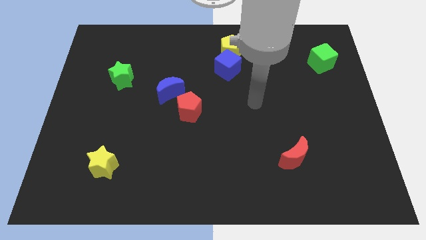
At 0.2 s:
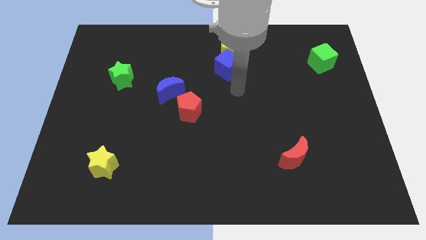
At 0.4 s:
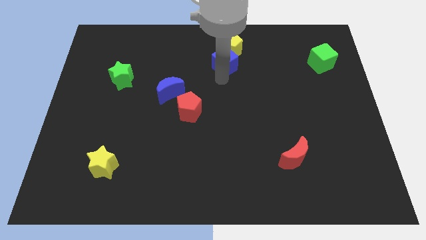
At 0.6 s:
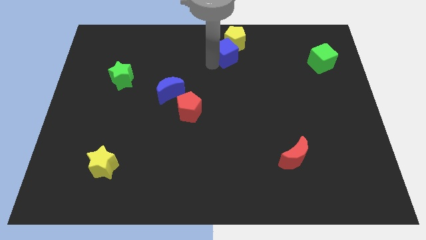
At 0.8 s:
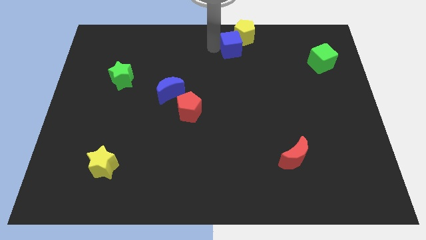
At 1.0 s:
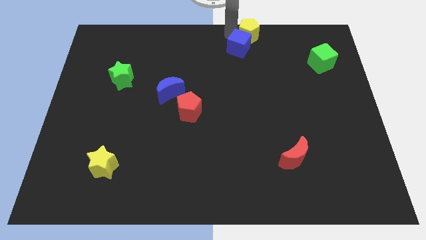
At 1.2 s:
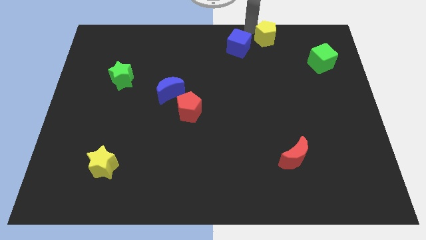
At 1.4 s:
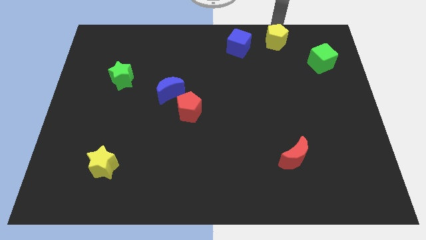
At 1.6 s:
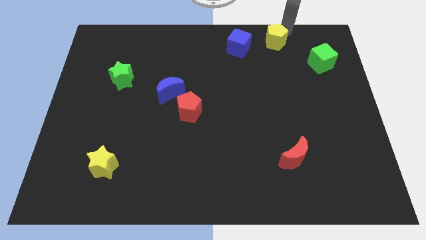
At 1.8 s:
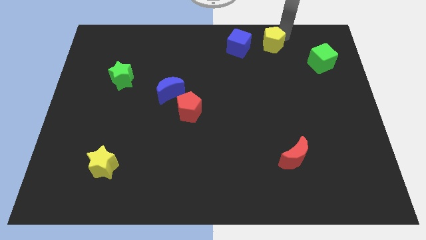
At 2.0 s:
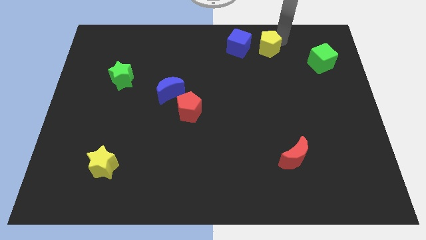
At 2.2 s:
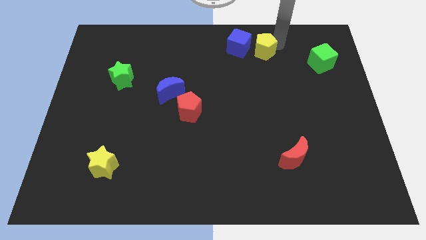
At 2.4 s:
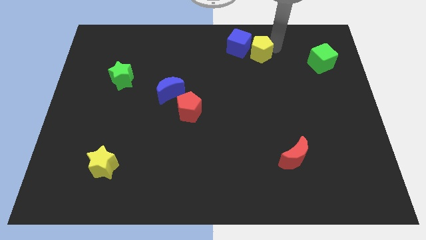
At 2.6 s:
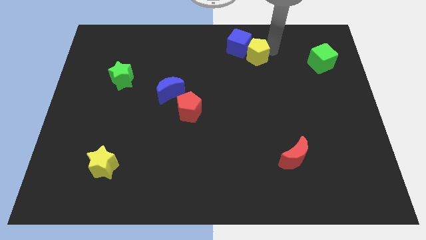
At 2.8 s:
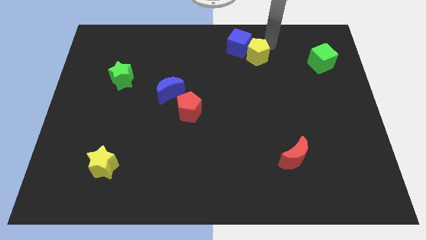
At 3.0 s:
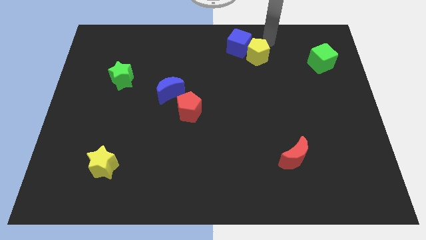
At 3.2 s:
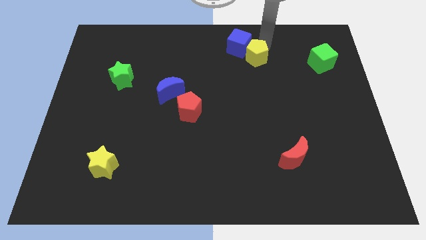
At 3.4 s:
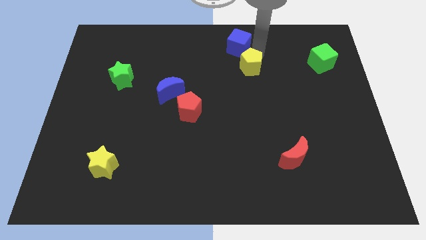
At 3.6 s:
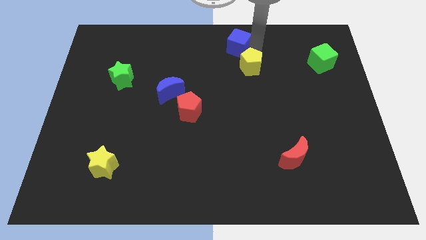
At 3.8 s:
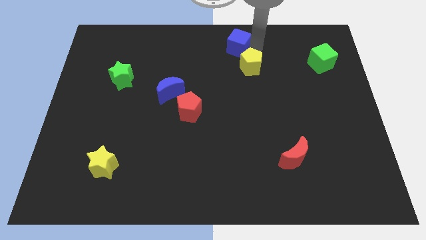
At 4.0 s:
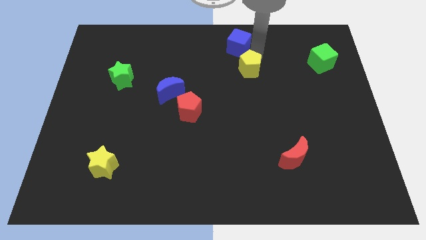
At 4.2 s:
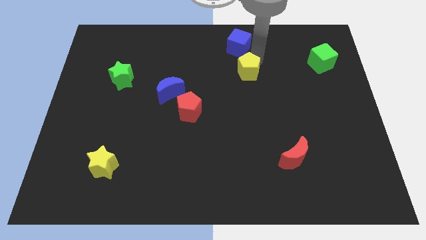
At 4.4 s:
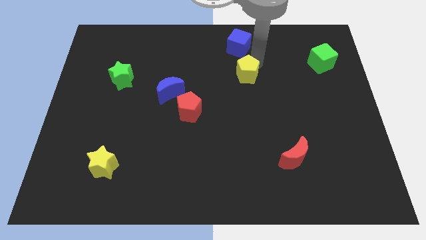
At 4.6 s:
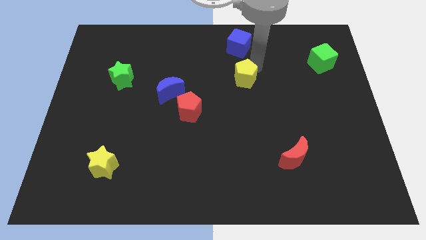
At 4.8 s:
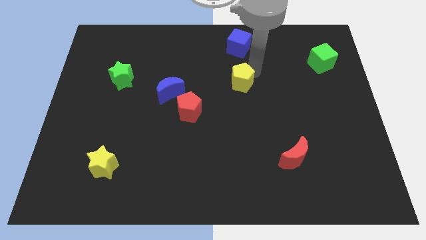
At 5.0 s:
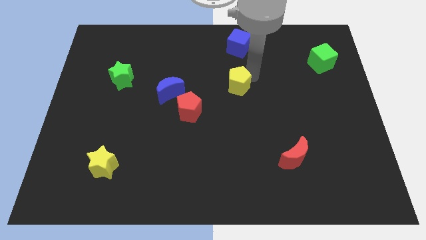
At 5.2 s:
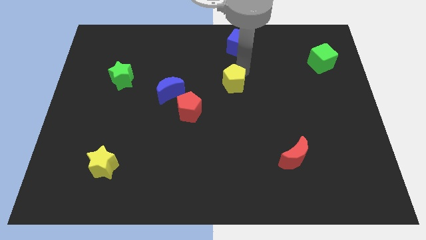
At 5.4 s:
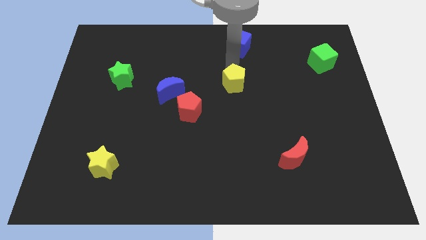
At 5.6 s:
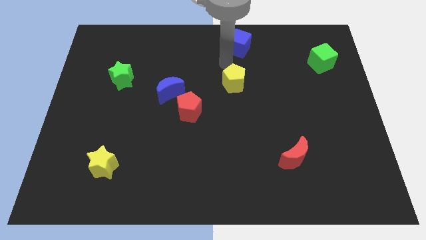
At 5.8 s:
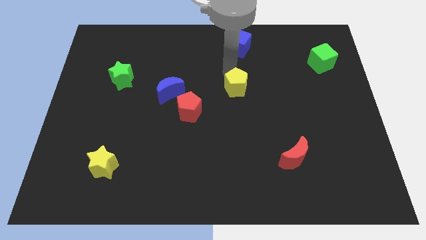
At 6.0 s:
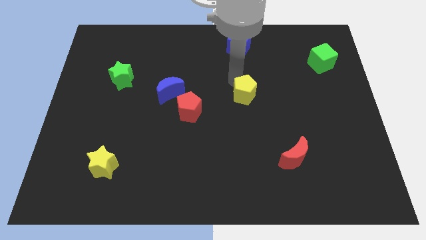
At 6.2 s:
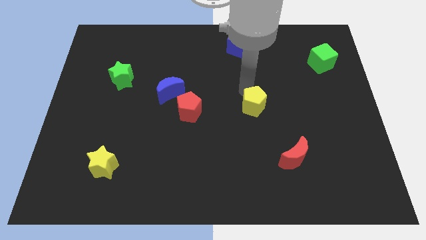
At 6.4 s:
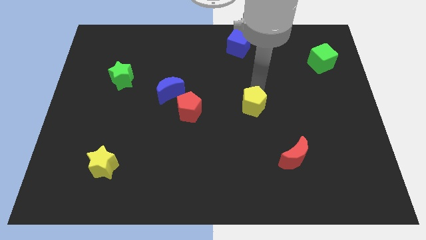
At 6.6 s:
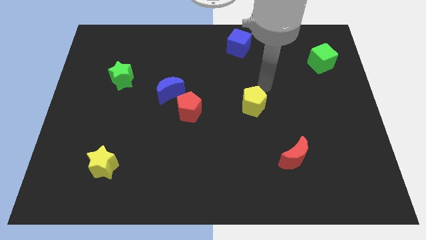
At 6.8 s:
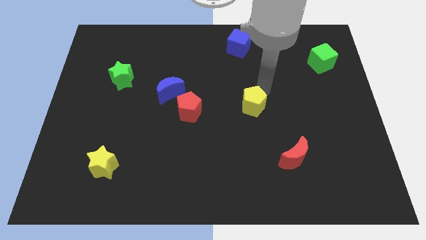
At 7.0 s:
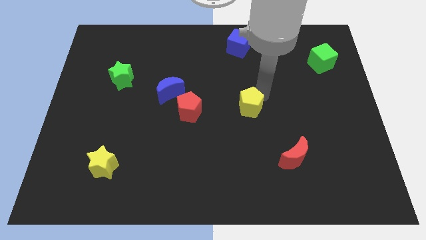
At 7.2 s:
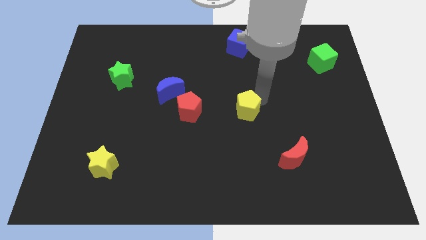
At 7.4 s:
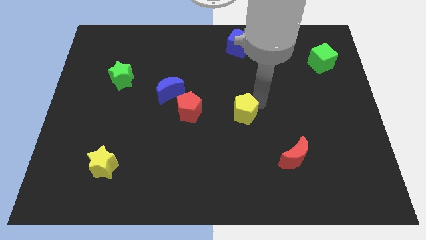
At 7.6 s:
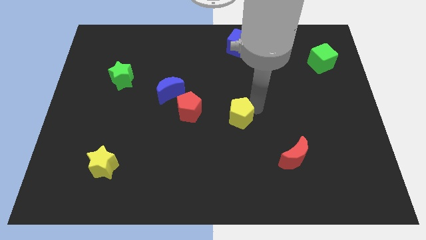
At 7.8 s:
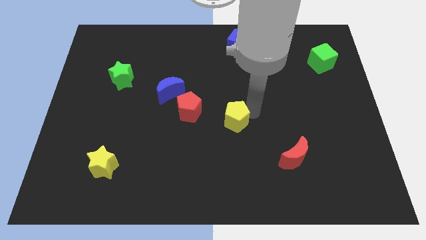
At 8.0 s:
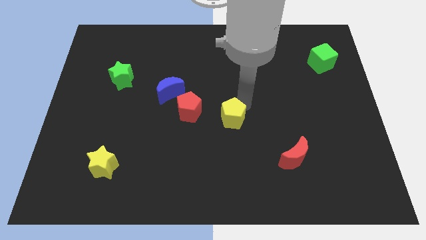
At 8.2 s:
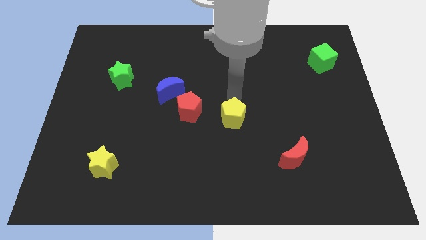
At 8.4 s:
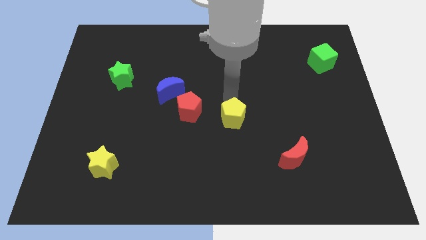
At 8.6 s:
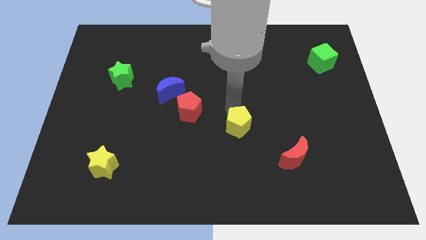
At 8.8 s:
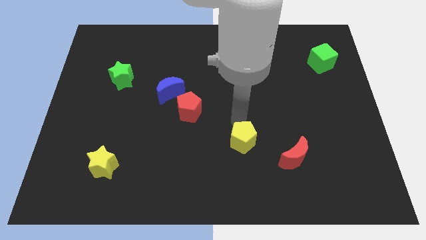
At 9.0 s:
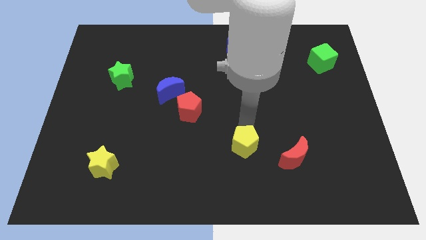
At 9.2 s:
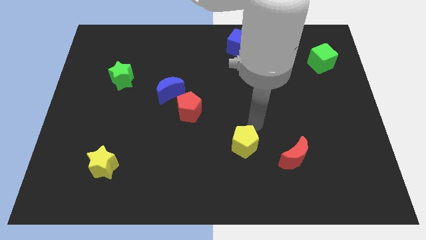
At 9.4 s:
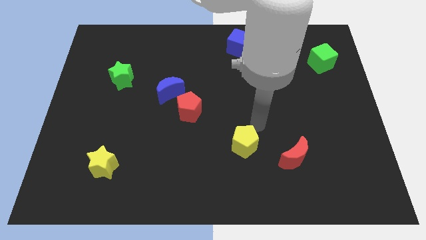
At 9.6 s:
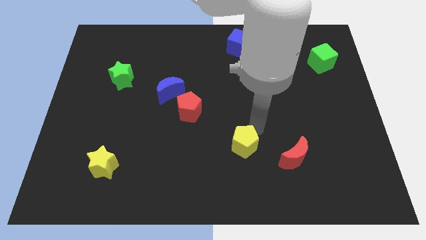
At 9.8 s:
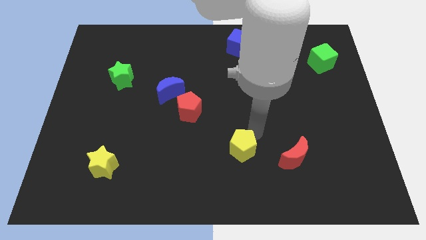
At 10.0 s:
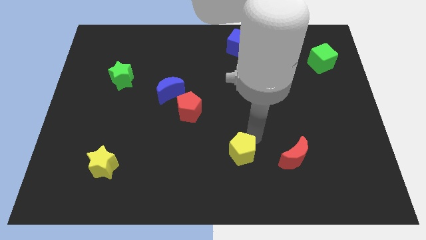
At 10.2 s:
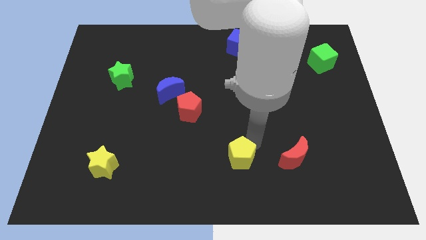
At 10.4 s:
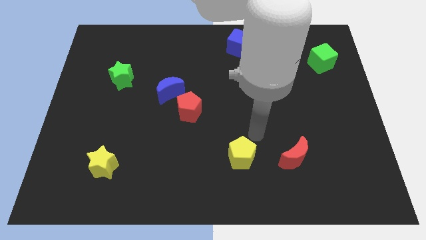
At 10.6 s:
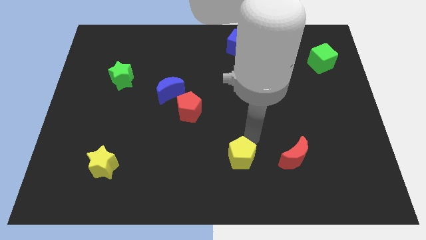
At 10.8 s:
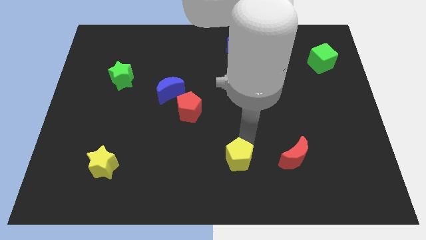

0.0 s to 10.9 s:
slide the yellow pentagon to the bottom

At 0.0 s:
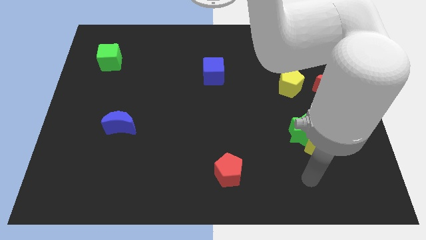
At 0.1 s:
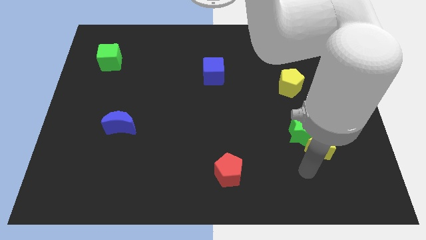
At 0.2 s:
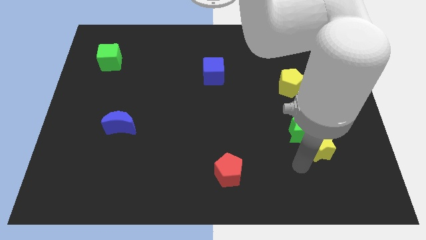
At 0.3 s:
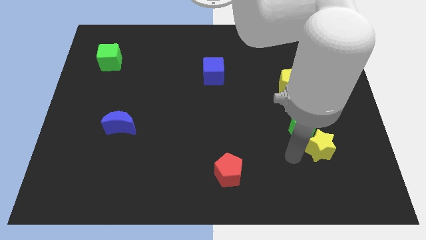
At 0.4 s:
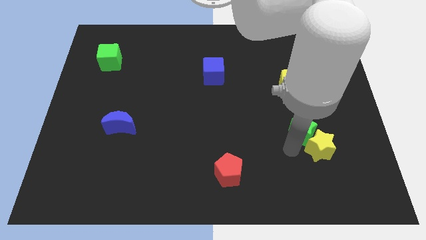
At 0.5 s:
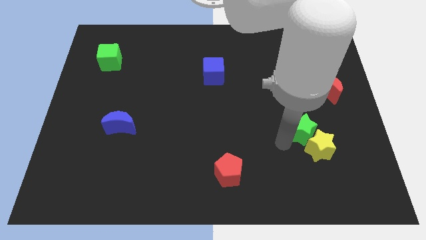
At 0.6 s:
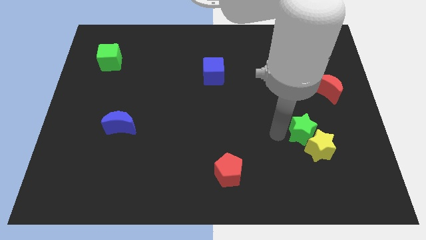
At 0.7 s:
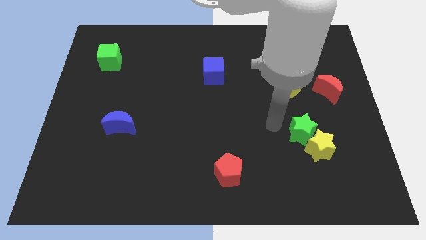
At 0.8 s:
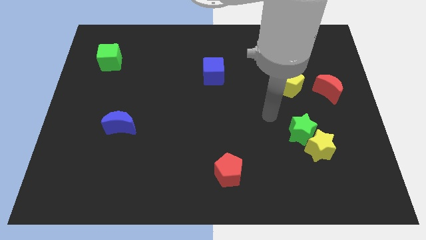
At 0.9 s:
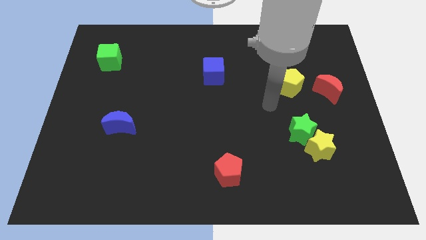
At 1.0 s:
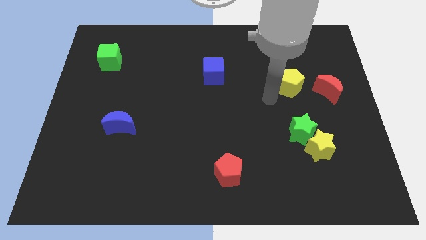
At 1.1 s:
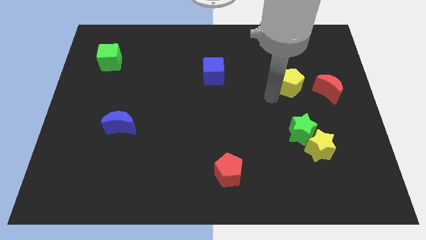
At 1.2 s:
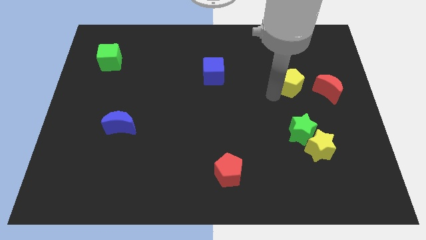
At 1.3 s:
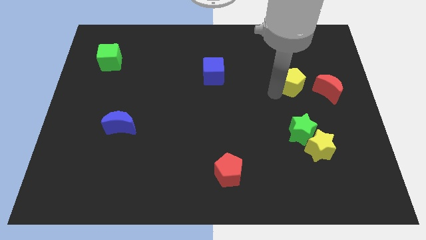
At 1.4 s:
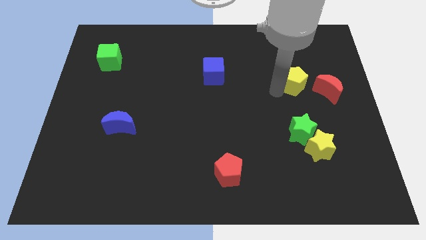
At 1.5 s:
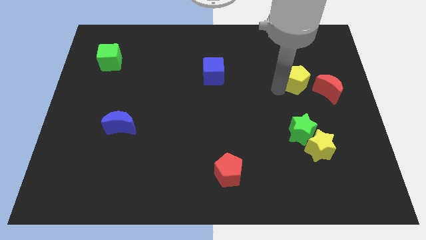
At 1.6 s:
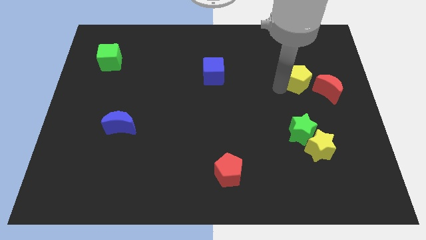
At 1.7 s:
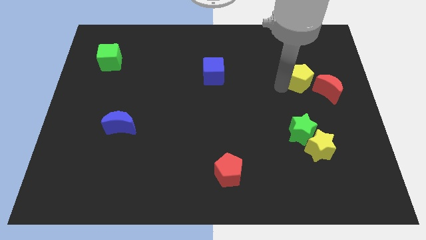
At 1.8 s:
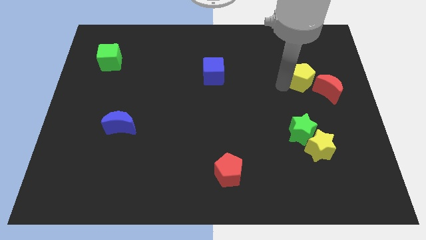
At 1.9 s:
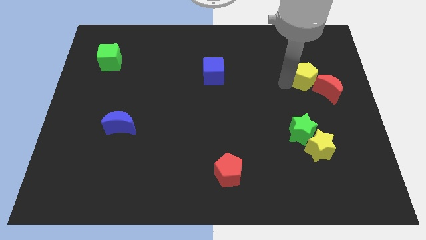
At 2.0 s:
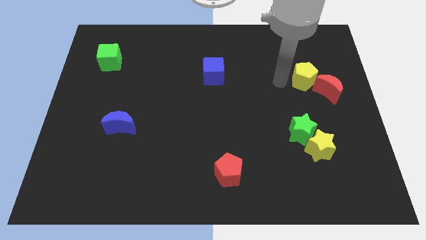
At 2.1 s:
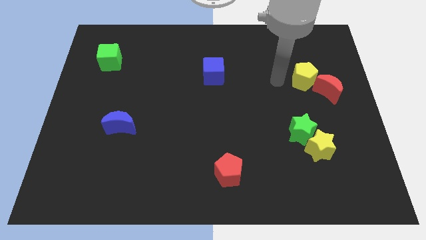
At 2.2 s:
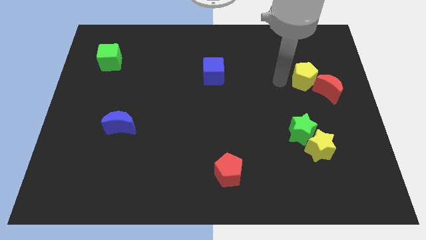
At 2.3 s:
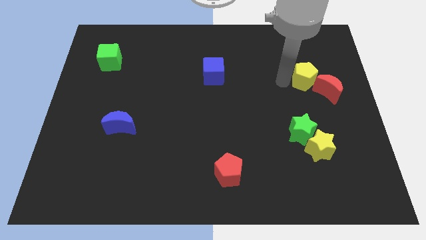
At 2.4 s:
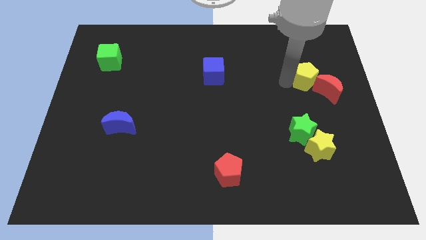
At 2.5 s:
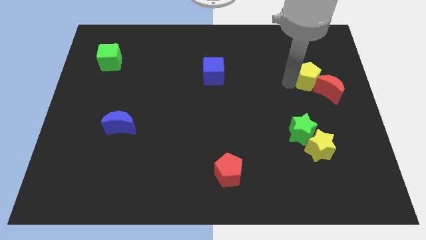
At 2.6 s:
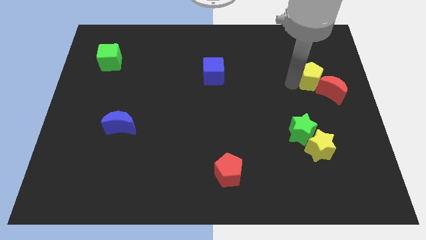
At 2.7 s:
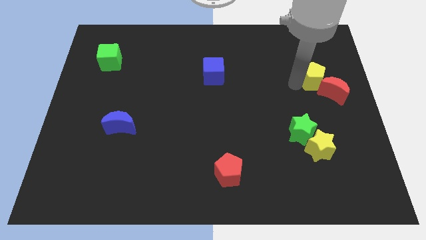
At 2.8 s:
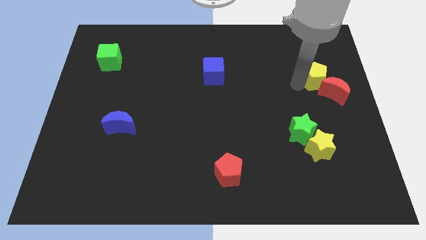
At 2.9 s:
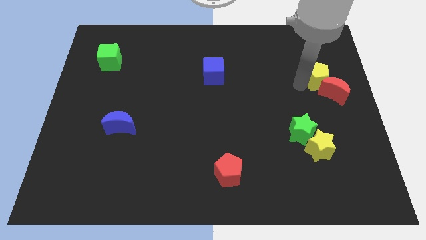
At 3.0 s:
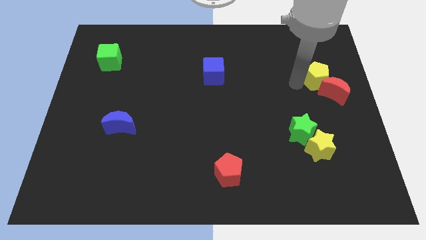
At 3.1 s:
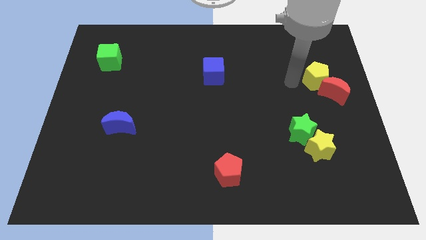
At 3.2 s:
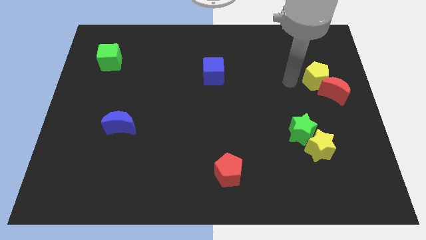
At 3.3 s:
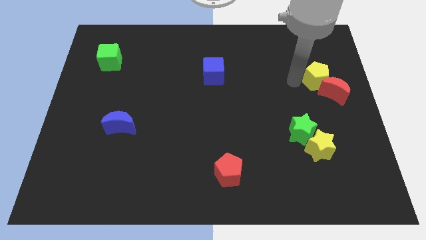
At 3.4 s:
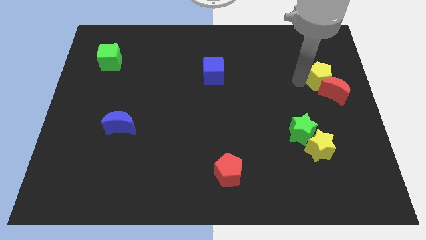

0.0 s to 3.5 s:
move the yellow pentagon to the right side of the board
